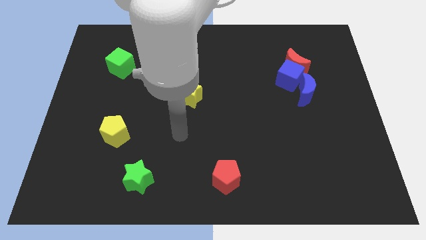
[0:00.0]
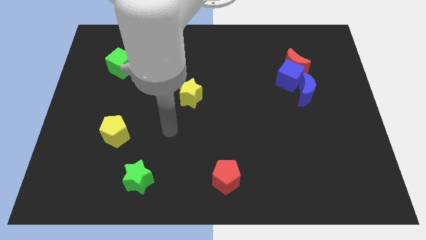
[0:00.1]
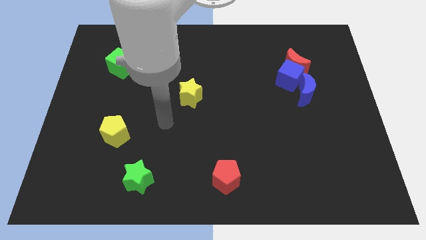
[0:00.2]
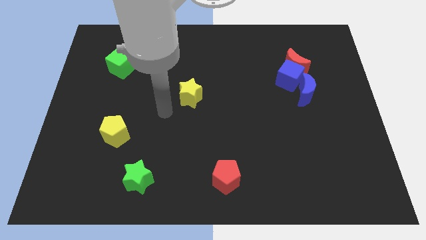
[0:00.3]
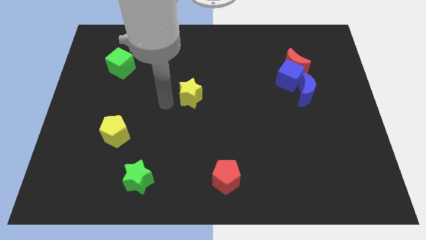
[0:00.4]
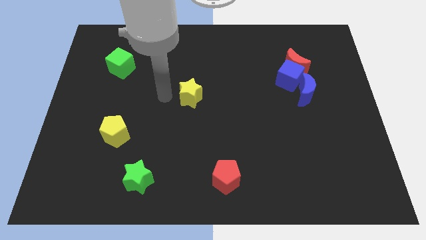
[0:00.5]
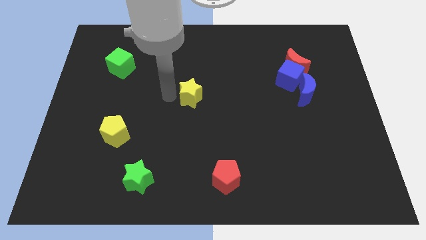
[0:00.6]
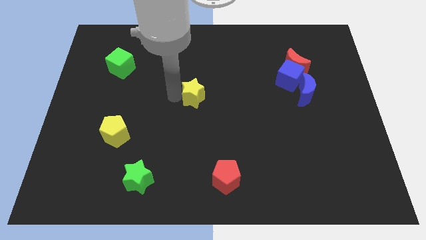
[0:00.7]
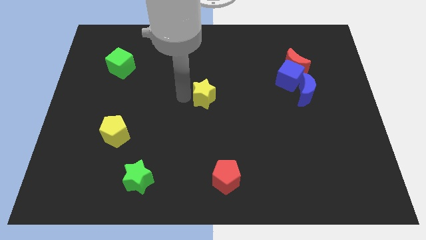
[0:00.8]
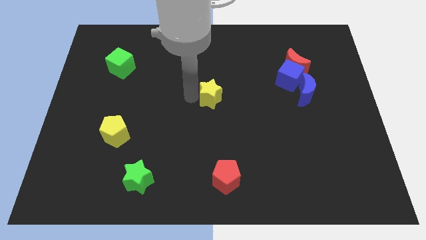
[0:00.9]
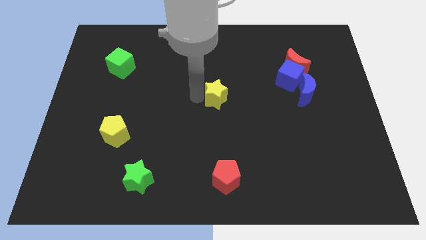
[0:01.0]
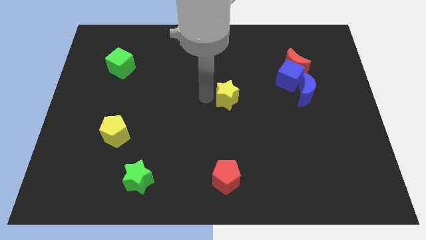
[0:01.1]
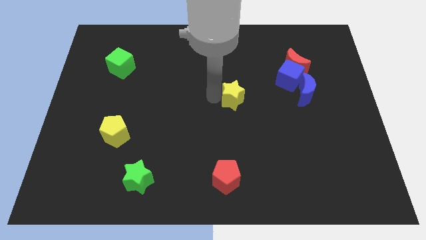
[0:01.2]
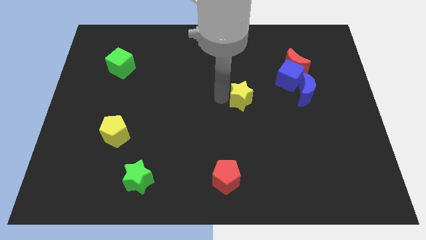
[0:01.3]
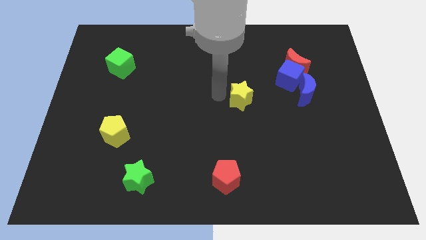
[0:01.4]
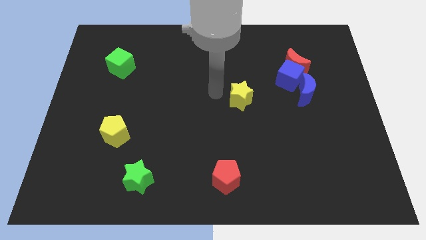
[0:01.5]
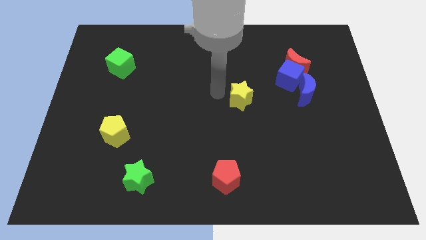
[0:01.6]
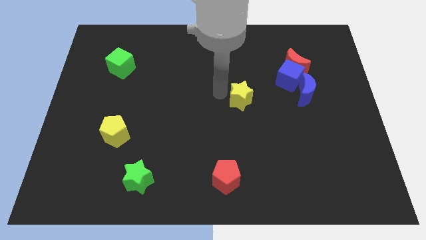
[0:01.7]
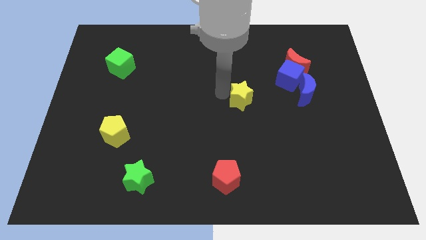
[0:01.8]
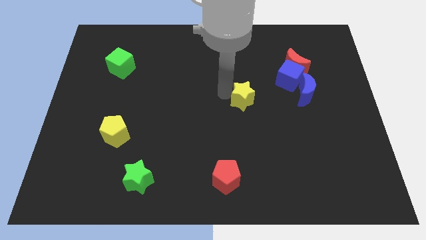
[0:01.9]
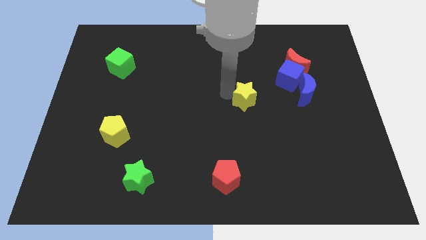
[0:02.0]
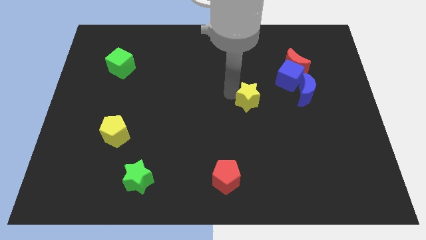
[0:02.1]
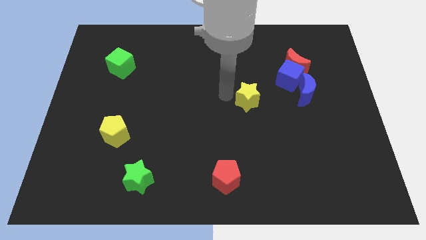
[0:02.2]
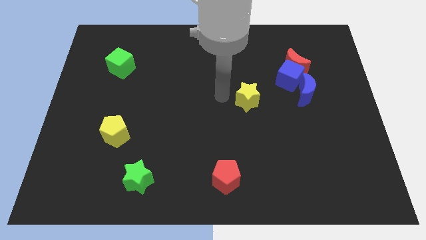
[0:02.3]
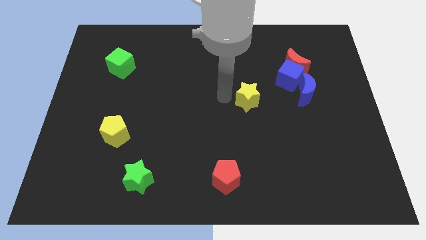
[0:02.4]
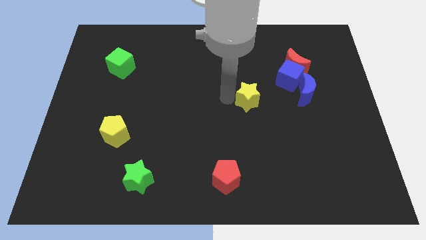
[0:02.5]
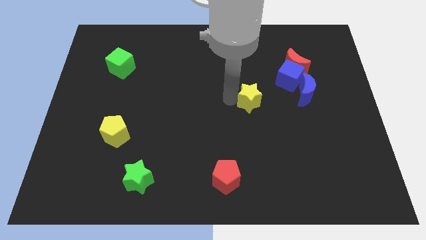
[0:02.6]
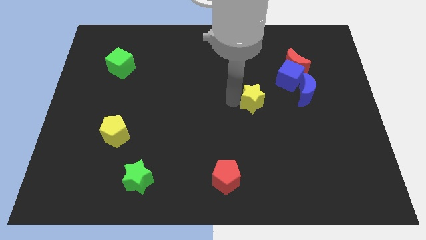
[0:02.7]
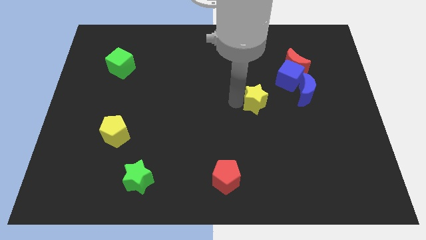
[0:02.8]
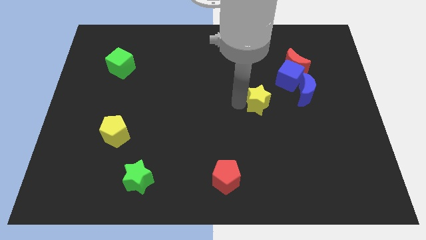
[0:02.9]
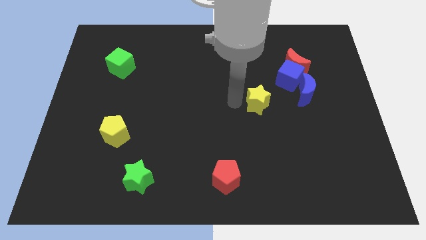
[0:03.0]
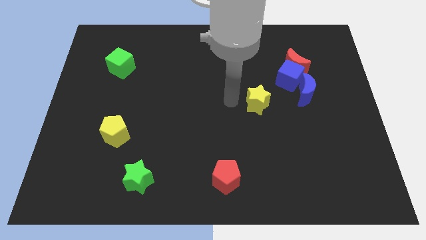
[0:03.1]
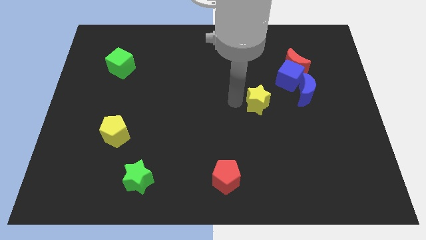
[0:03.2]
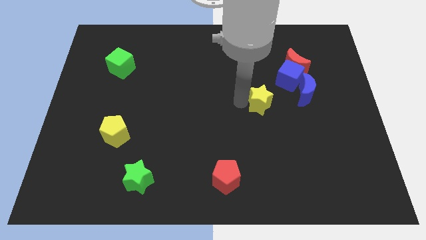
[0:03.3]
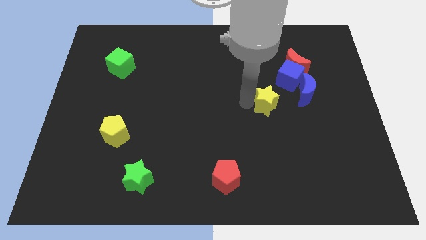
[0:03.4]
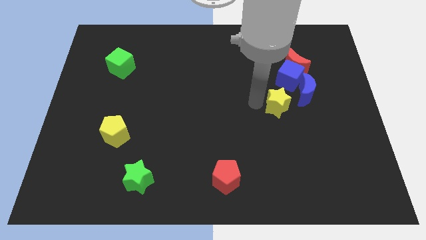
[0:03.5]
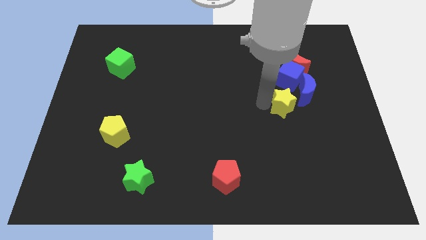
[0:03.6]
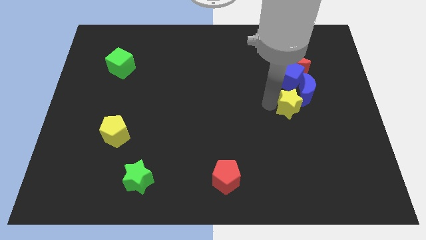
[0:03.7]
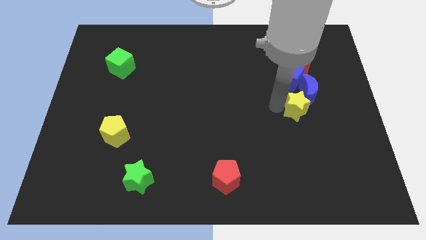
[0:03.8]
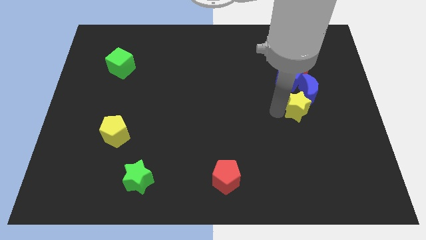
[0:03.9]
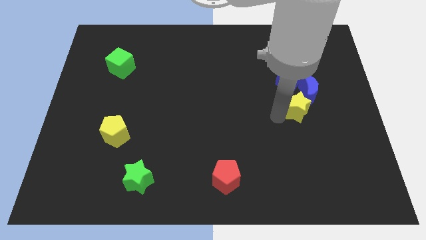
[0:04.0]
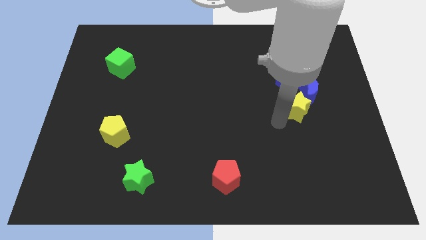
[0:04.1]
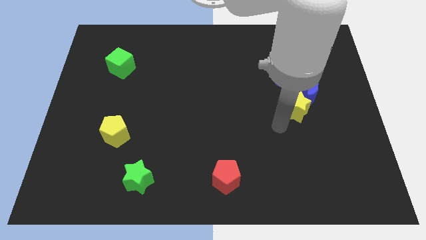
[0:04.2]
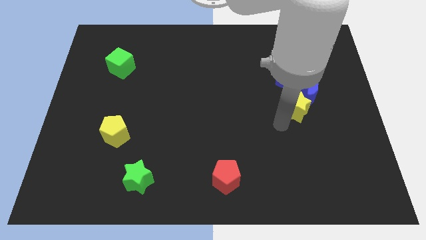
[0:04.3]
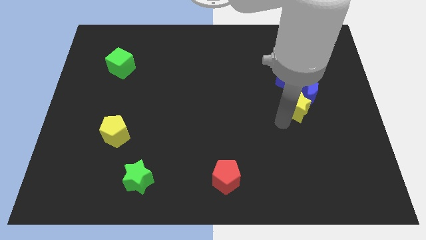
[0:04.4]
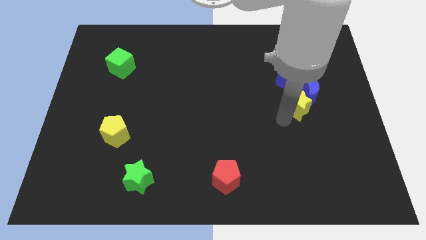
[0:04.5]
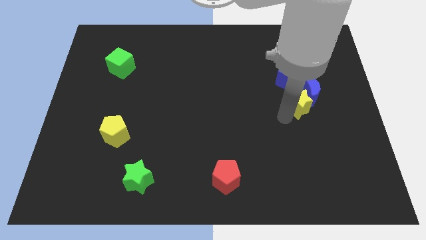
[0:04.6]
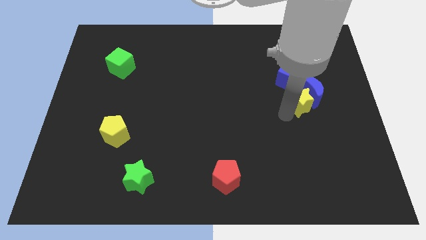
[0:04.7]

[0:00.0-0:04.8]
put the yellow star to the bottom right of the blue cube

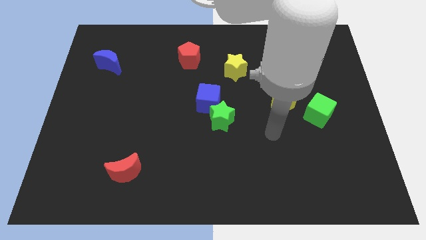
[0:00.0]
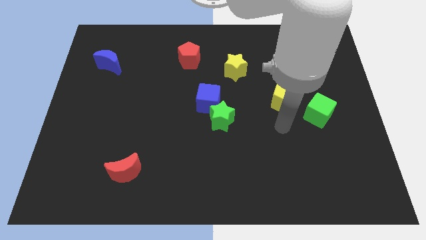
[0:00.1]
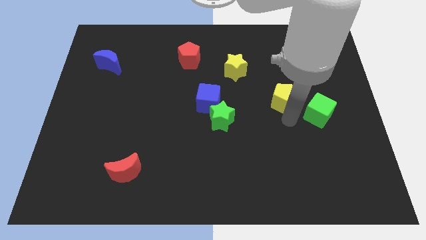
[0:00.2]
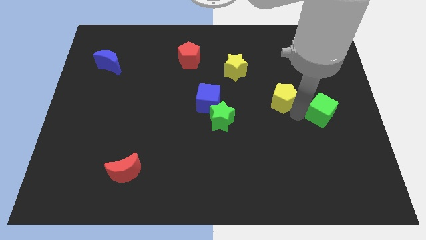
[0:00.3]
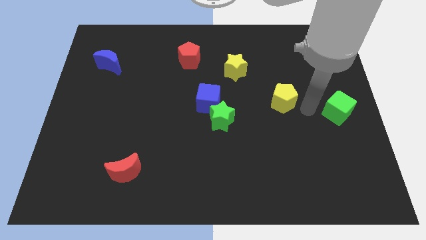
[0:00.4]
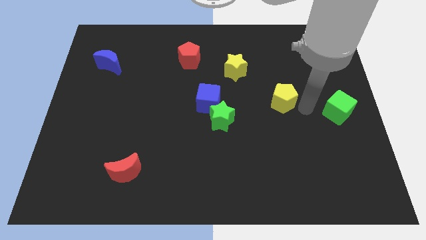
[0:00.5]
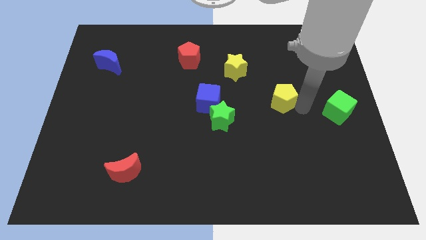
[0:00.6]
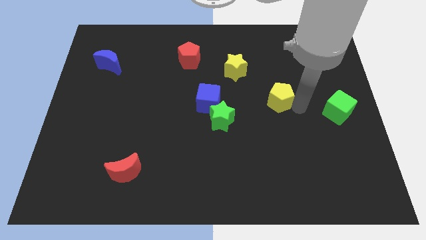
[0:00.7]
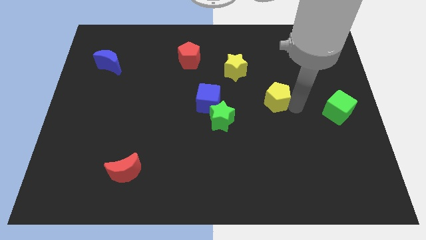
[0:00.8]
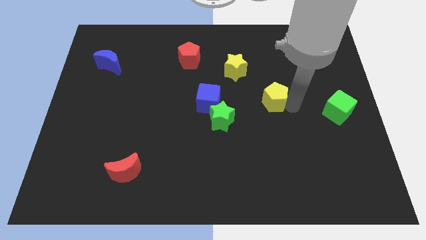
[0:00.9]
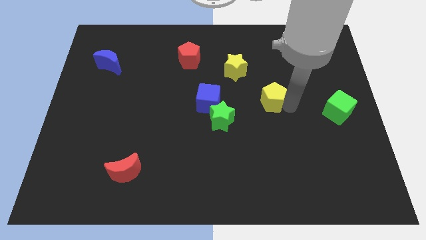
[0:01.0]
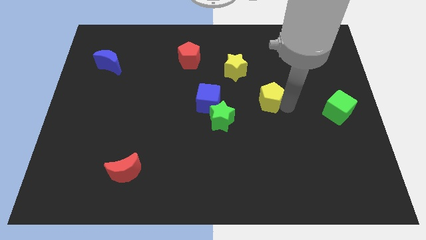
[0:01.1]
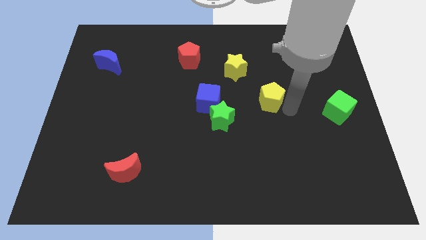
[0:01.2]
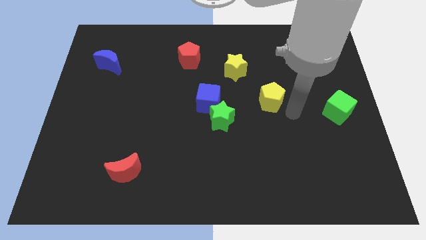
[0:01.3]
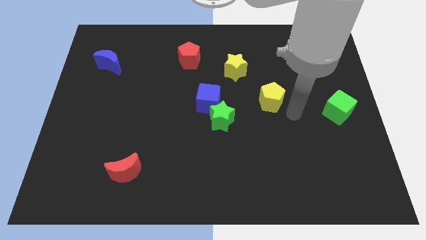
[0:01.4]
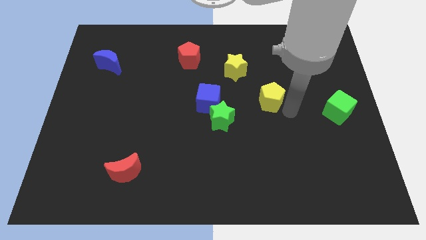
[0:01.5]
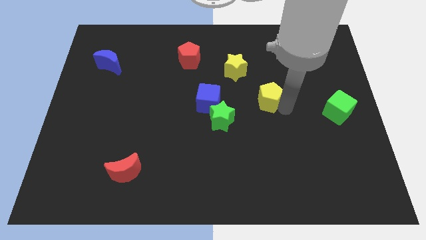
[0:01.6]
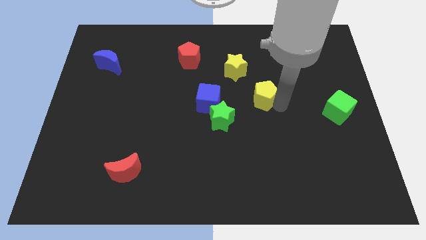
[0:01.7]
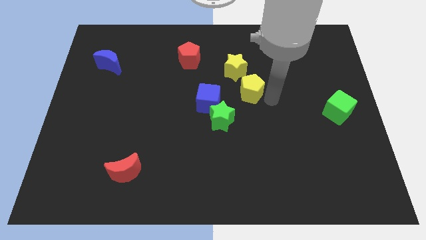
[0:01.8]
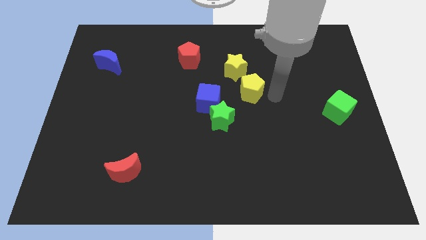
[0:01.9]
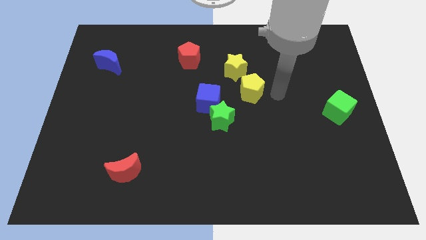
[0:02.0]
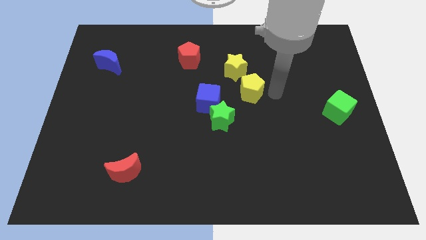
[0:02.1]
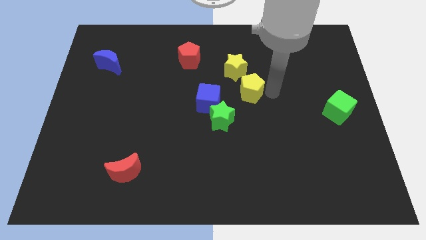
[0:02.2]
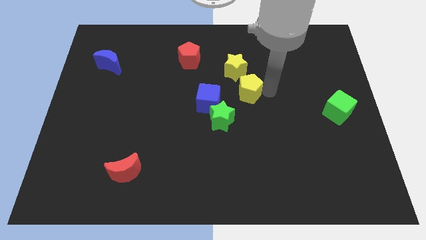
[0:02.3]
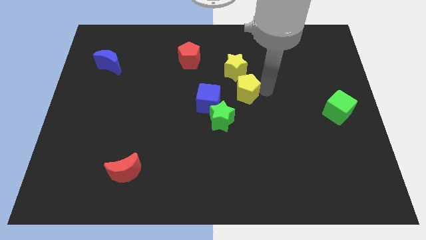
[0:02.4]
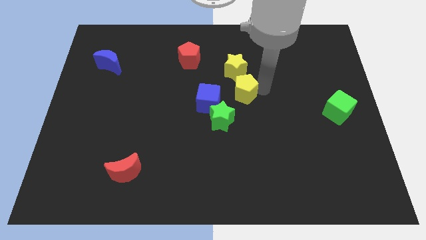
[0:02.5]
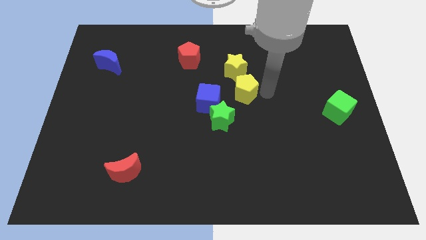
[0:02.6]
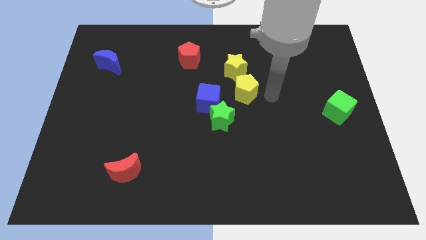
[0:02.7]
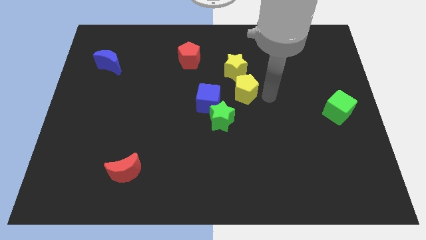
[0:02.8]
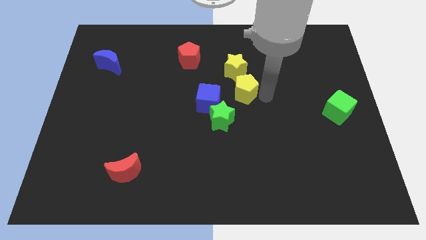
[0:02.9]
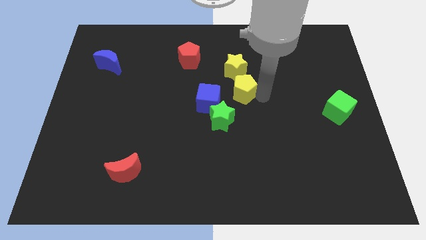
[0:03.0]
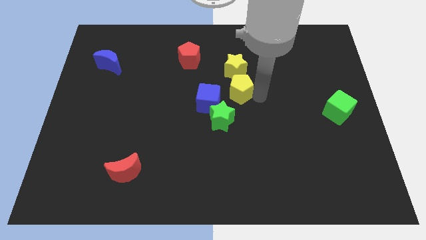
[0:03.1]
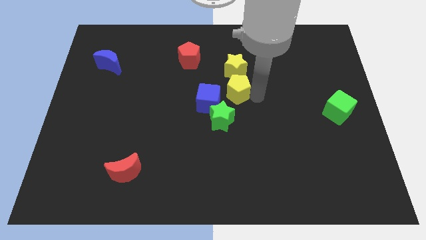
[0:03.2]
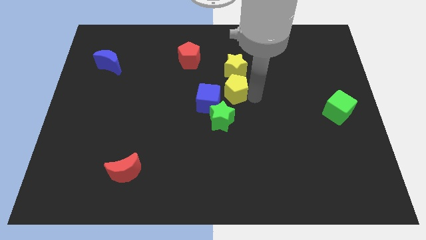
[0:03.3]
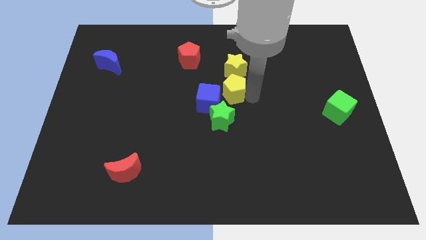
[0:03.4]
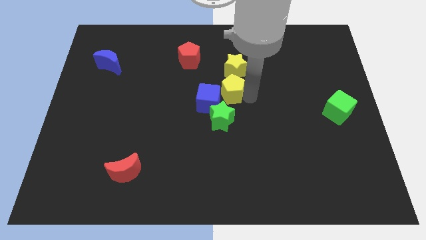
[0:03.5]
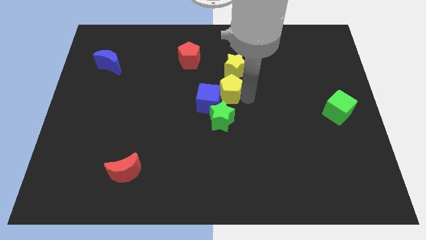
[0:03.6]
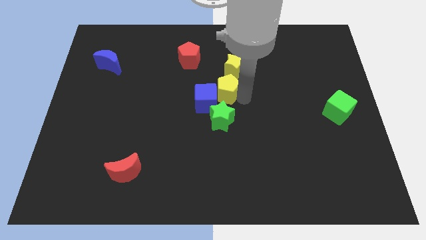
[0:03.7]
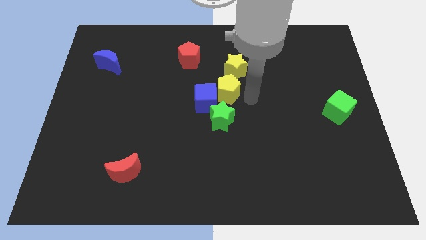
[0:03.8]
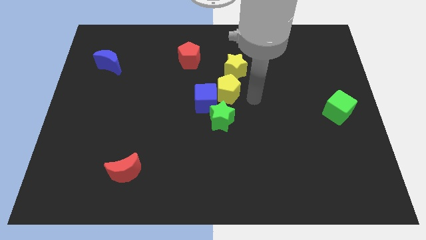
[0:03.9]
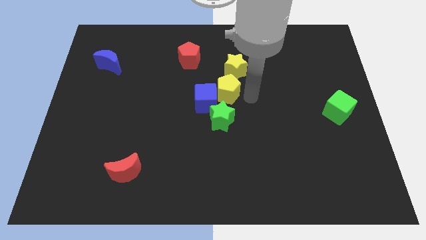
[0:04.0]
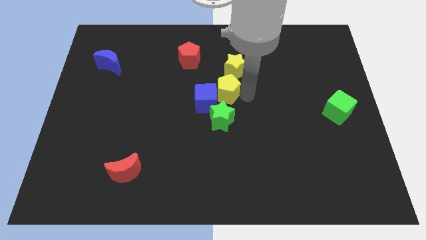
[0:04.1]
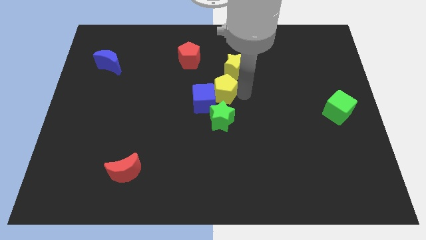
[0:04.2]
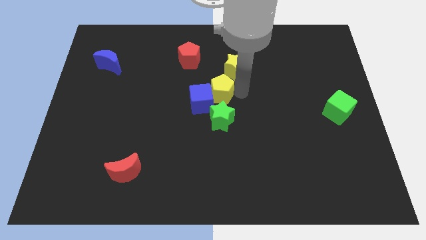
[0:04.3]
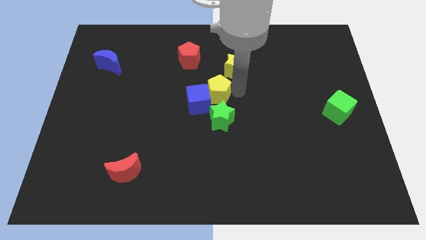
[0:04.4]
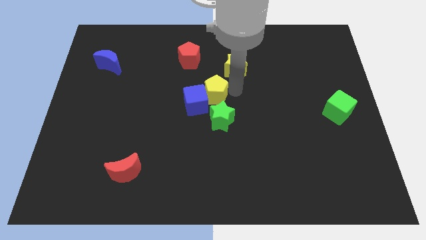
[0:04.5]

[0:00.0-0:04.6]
move the yellow pentagon to the top left side of the green star
